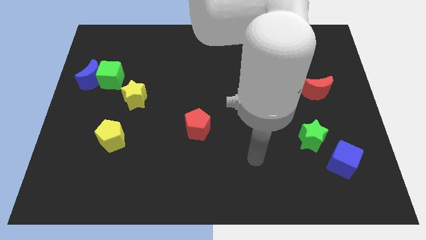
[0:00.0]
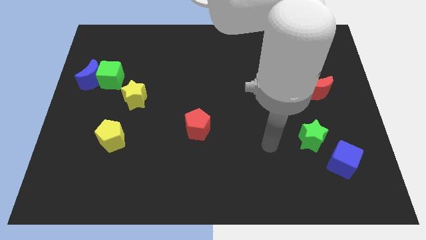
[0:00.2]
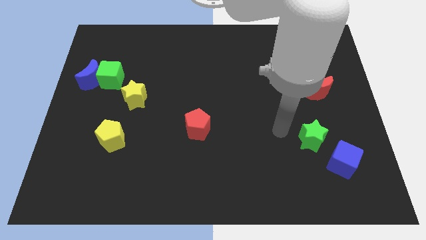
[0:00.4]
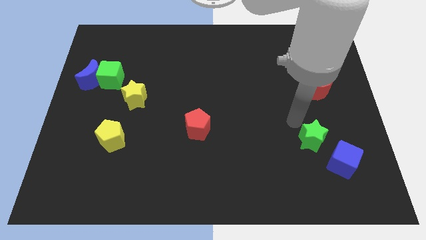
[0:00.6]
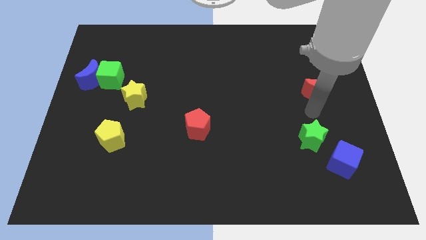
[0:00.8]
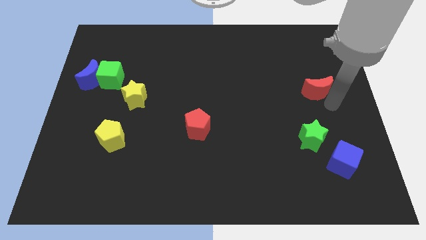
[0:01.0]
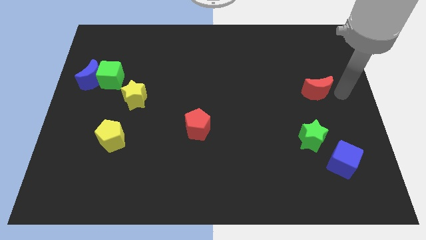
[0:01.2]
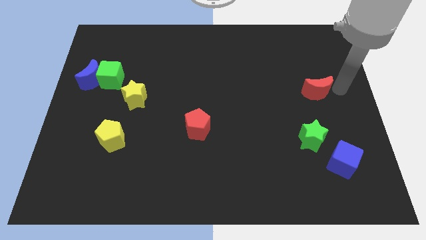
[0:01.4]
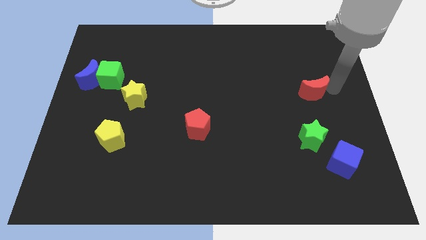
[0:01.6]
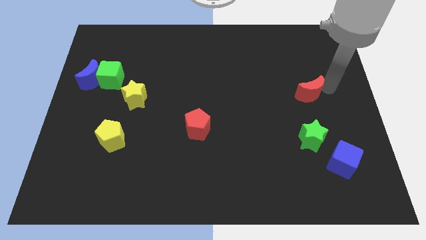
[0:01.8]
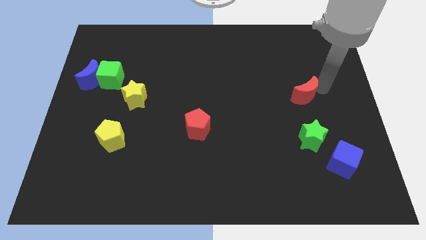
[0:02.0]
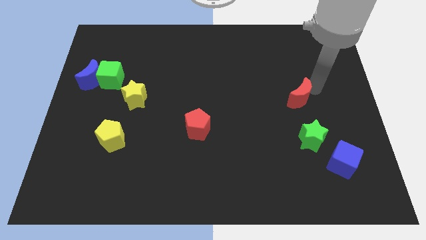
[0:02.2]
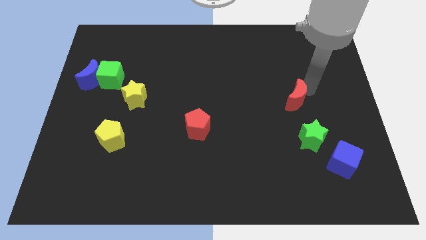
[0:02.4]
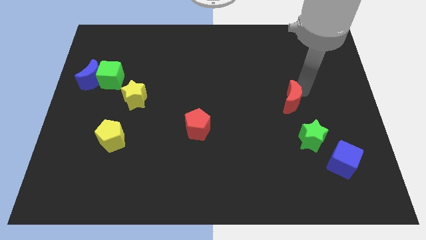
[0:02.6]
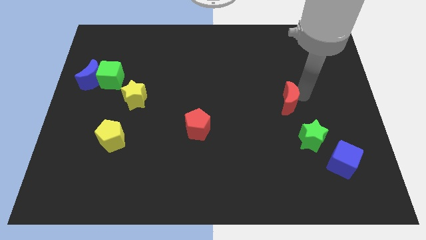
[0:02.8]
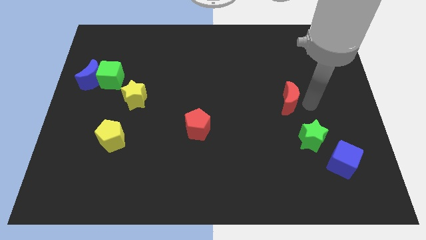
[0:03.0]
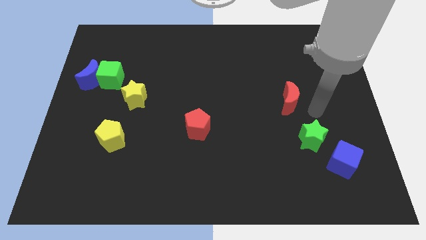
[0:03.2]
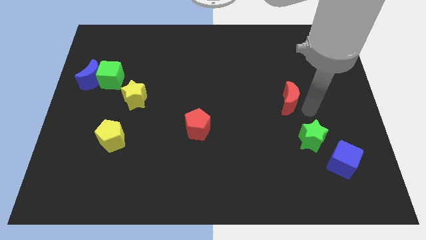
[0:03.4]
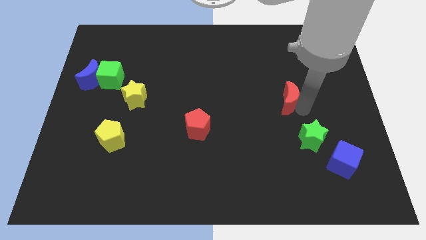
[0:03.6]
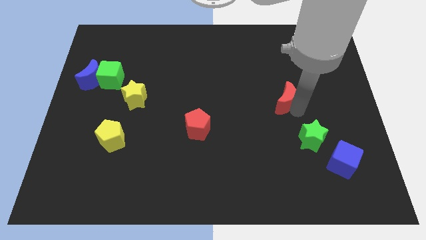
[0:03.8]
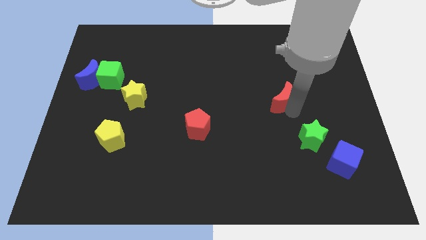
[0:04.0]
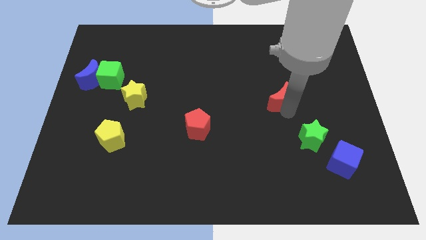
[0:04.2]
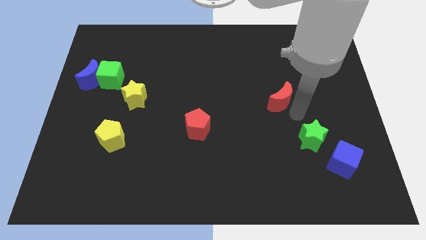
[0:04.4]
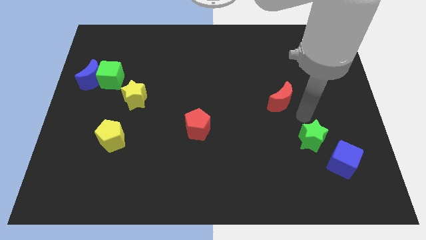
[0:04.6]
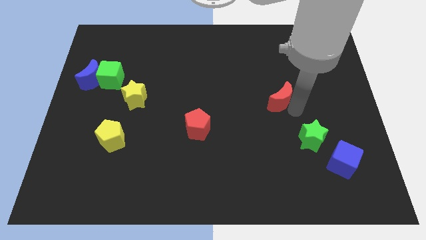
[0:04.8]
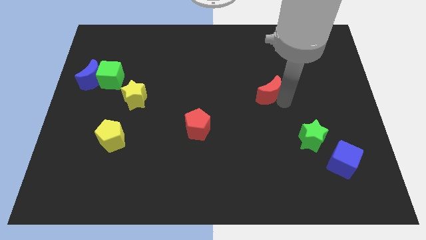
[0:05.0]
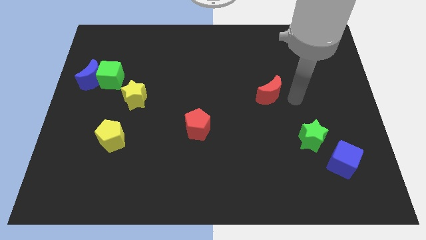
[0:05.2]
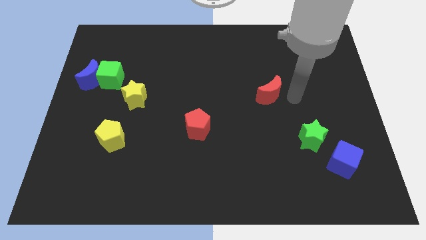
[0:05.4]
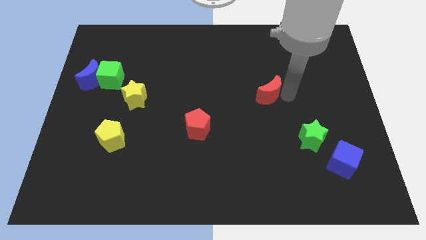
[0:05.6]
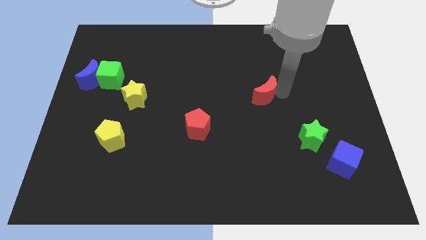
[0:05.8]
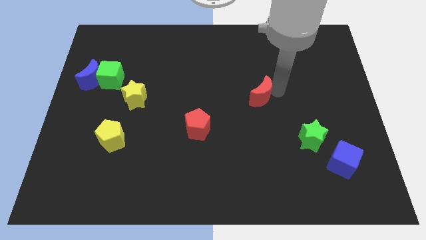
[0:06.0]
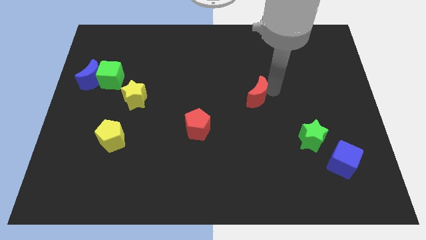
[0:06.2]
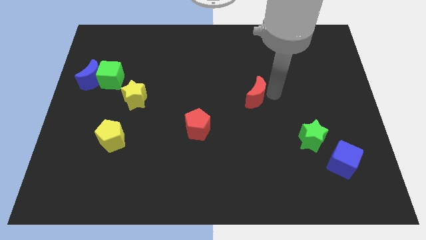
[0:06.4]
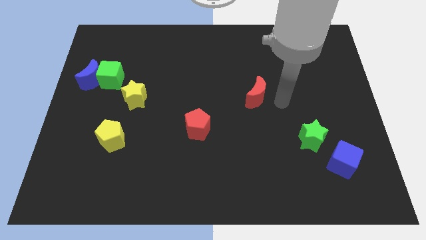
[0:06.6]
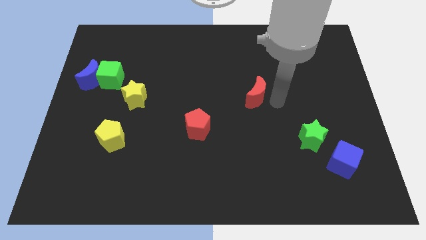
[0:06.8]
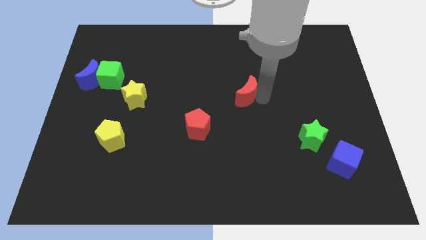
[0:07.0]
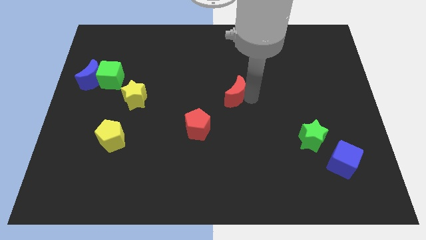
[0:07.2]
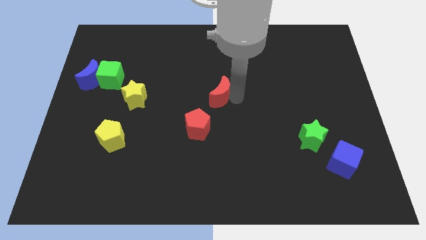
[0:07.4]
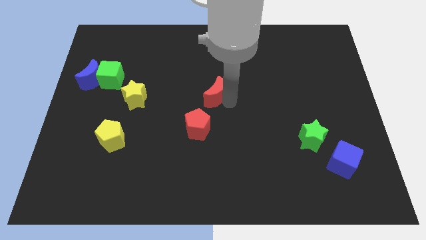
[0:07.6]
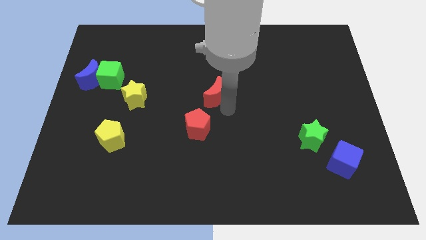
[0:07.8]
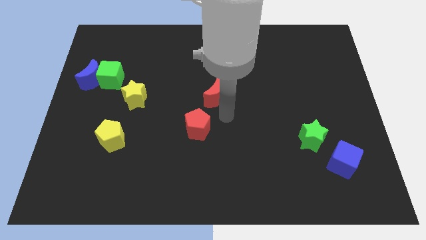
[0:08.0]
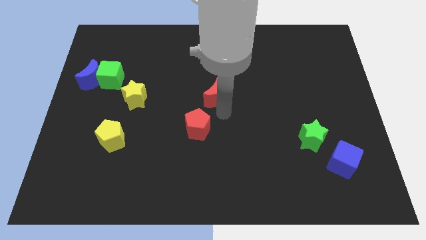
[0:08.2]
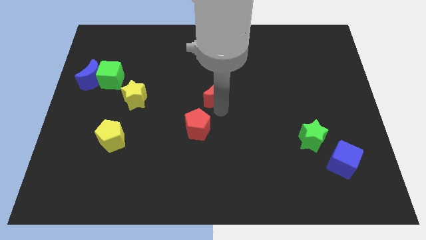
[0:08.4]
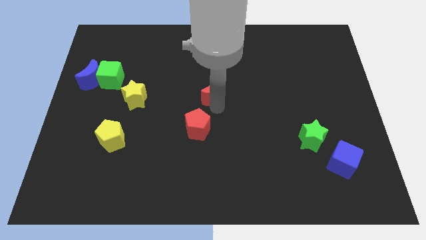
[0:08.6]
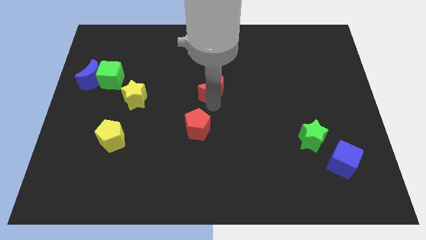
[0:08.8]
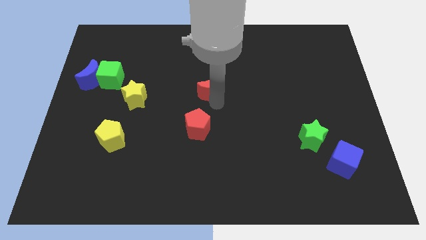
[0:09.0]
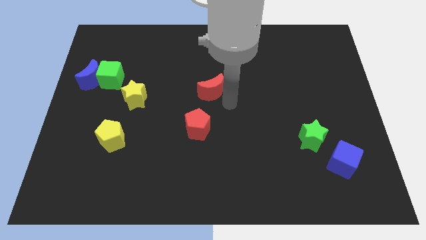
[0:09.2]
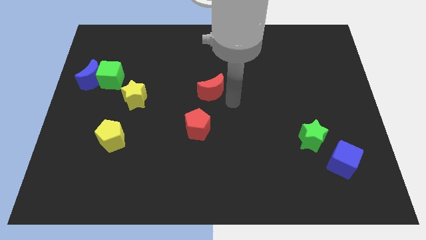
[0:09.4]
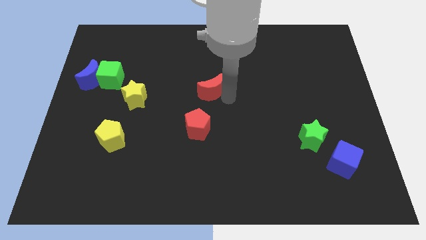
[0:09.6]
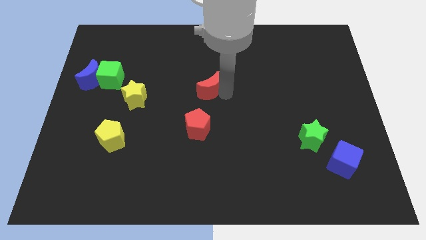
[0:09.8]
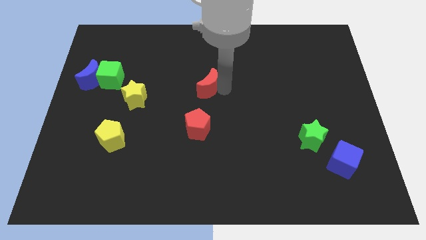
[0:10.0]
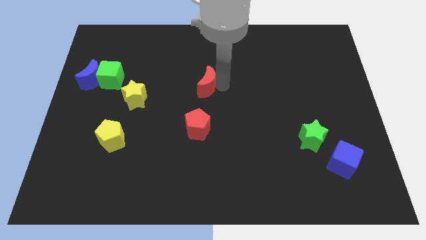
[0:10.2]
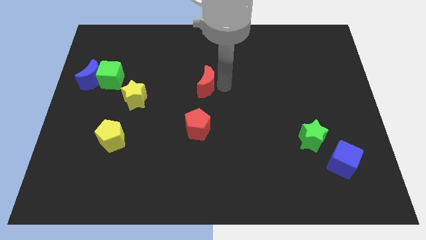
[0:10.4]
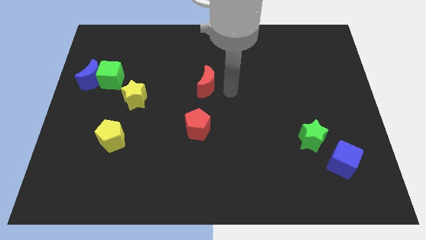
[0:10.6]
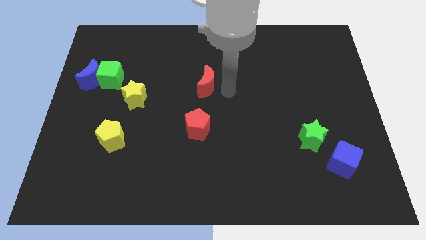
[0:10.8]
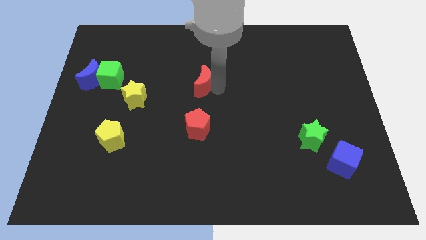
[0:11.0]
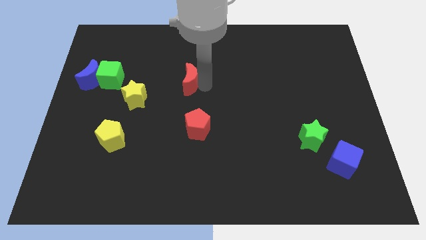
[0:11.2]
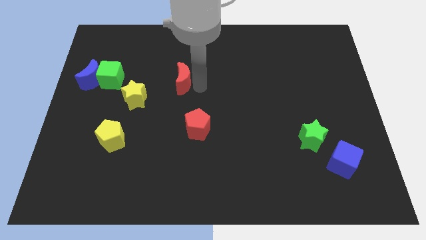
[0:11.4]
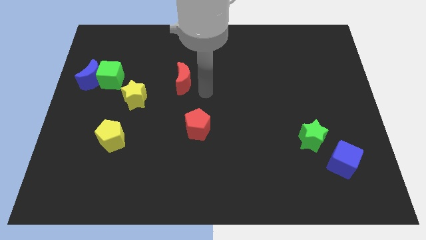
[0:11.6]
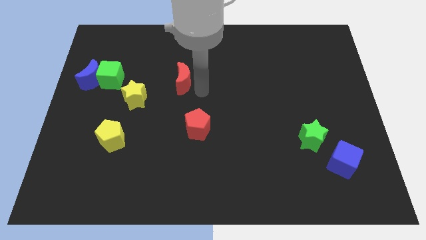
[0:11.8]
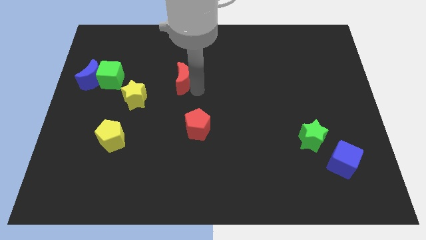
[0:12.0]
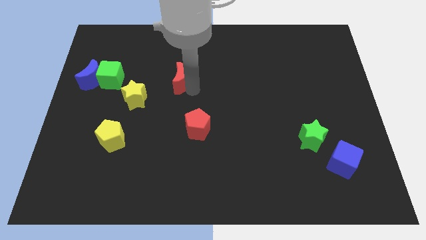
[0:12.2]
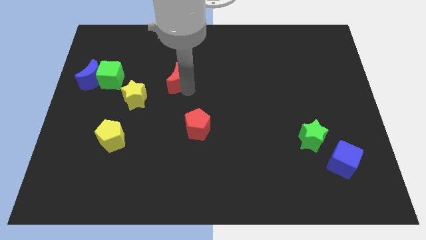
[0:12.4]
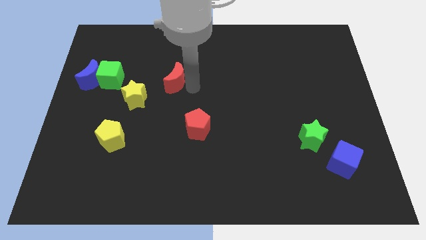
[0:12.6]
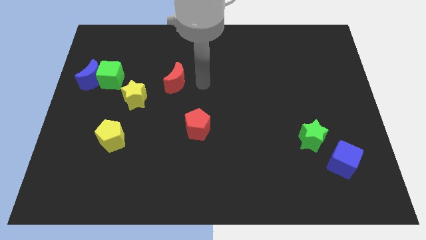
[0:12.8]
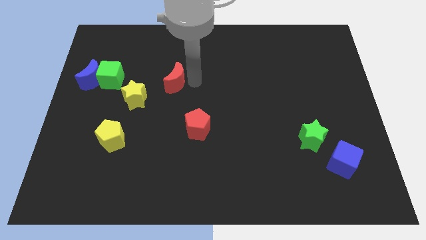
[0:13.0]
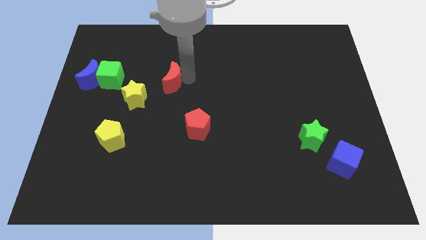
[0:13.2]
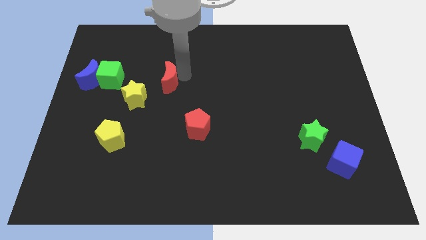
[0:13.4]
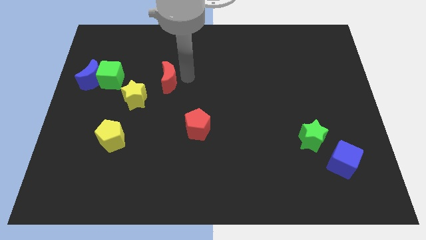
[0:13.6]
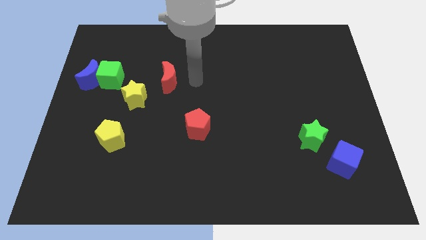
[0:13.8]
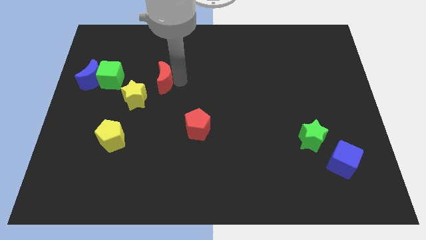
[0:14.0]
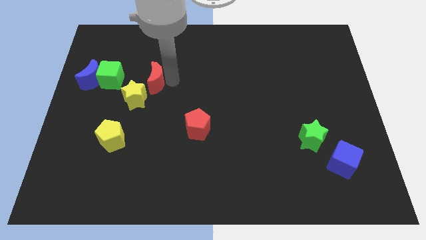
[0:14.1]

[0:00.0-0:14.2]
slide the red moon right of the blue moon

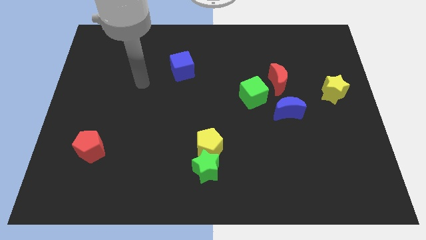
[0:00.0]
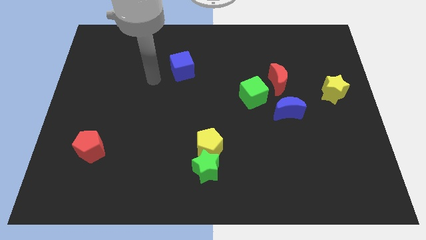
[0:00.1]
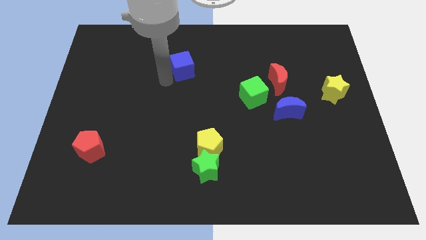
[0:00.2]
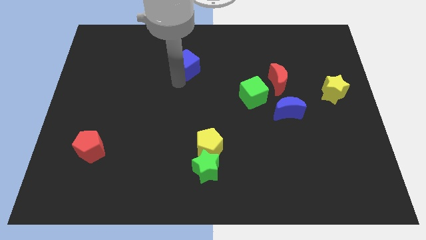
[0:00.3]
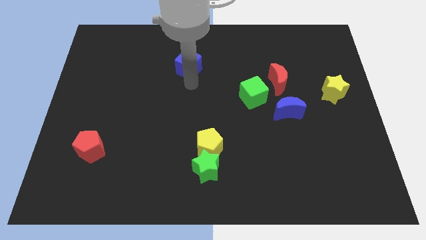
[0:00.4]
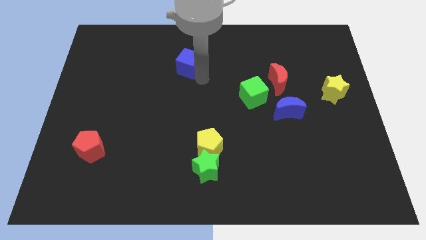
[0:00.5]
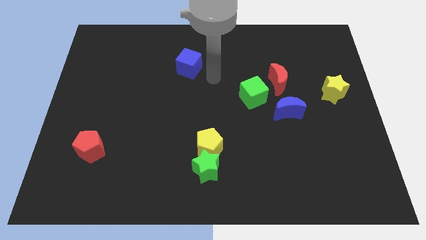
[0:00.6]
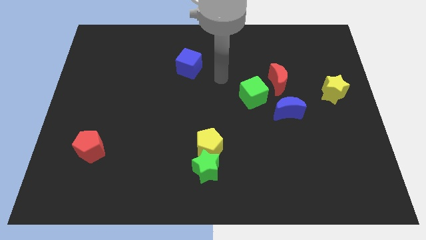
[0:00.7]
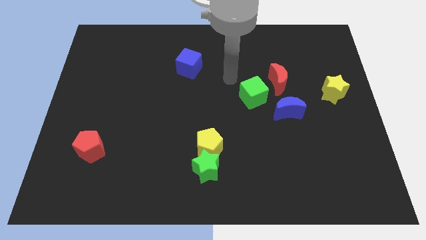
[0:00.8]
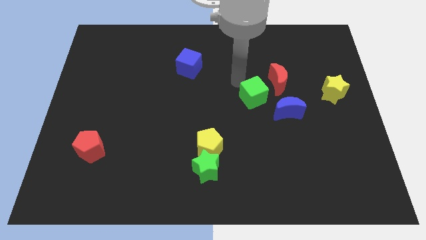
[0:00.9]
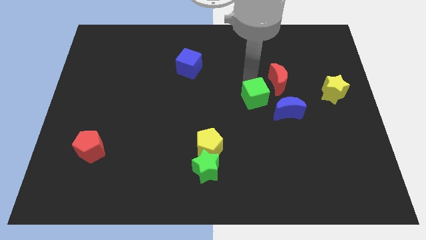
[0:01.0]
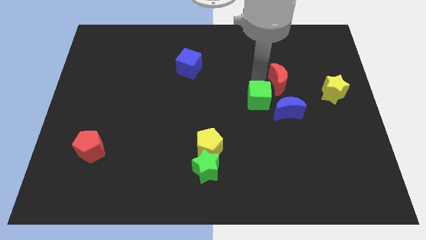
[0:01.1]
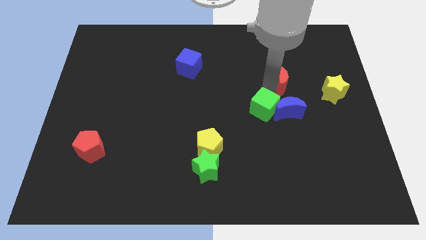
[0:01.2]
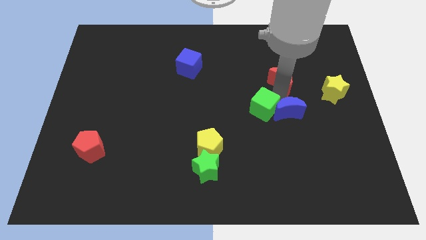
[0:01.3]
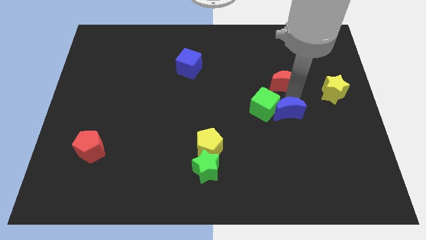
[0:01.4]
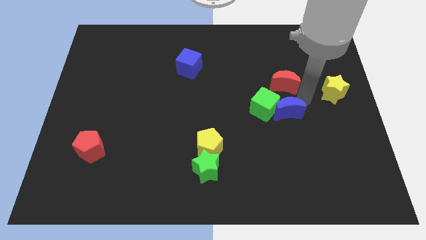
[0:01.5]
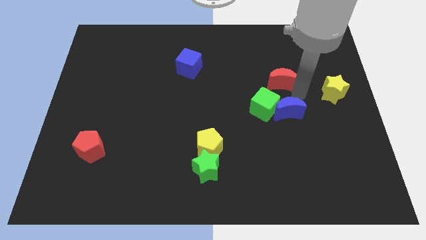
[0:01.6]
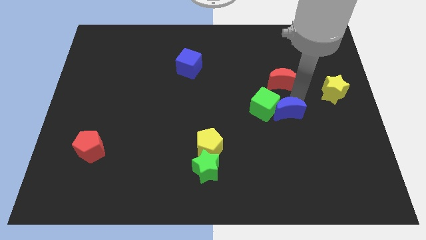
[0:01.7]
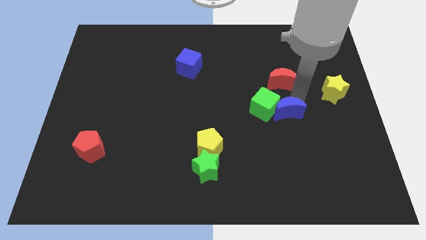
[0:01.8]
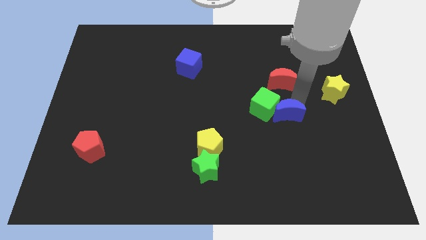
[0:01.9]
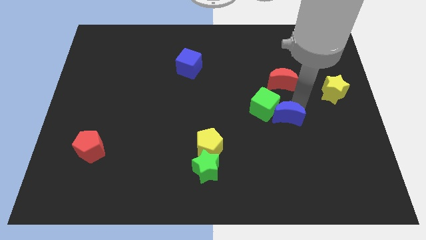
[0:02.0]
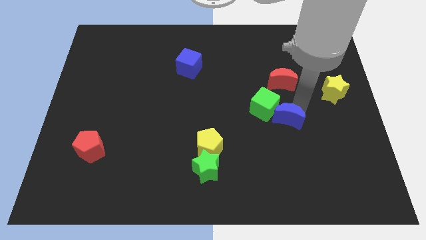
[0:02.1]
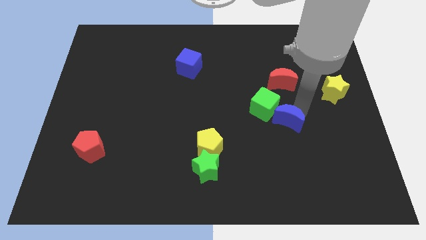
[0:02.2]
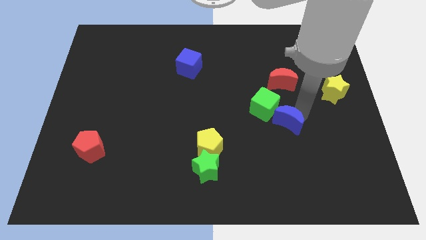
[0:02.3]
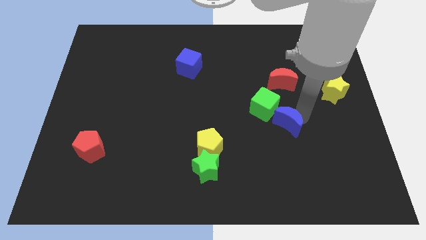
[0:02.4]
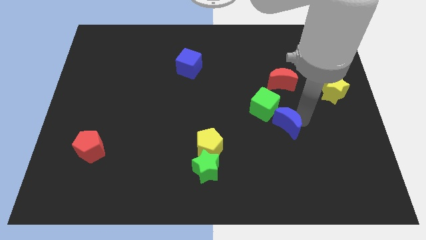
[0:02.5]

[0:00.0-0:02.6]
slide the blue moon to the bottom side of the green cube
